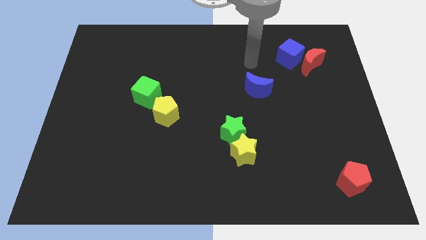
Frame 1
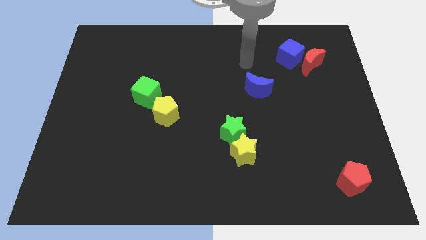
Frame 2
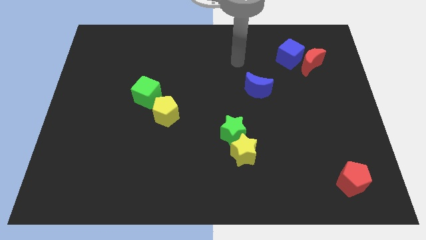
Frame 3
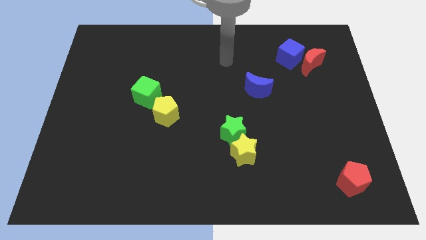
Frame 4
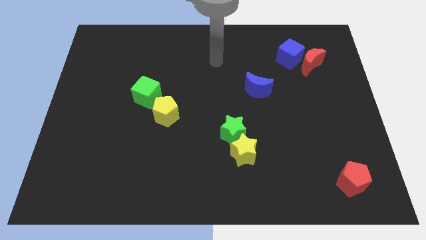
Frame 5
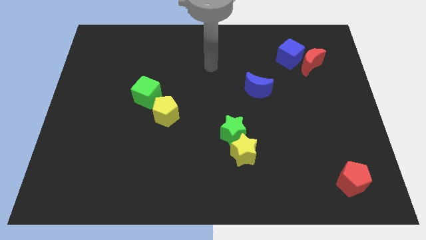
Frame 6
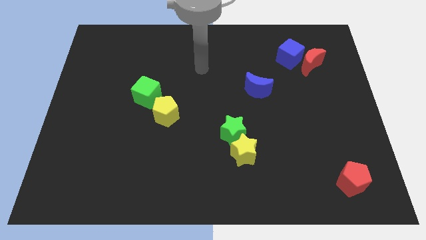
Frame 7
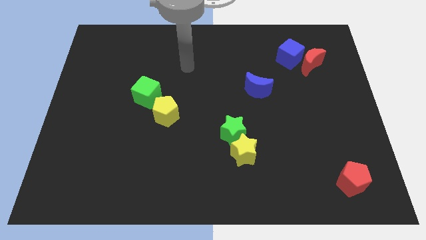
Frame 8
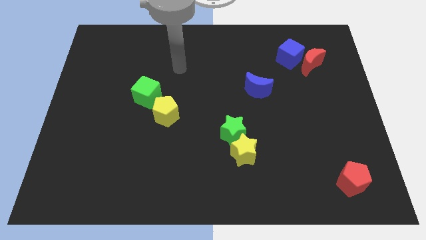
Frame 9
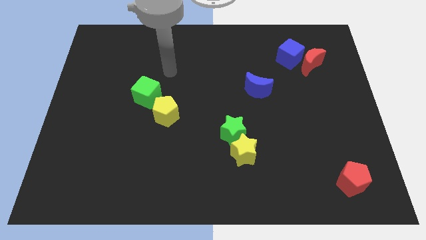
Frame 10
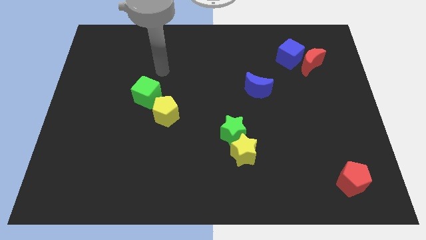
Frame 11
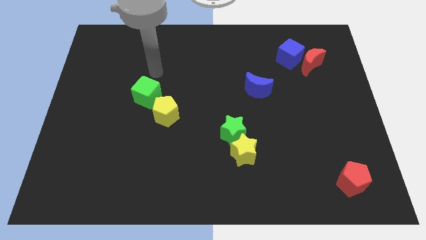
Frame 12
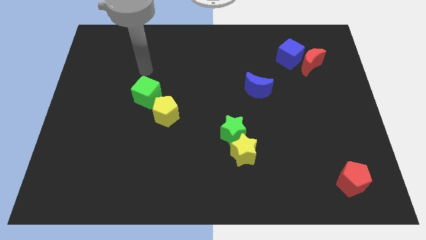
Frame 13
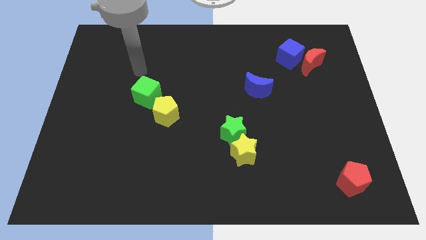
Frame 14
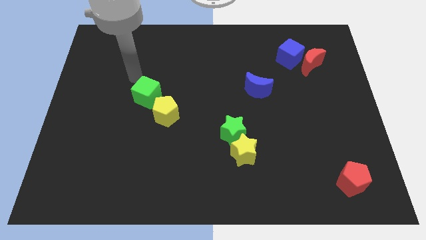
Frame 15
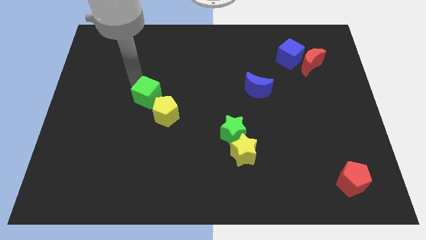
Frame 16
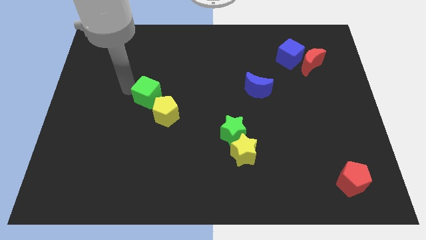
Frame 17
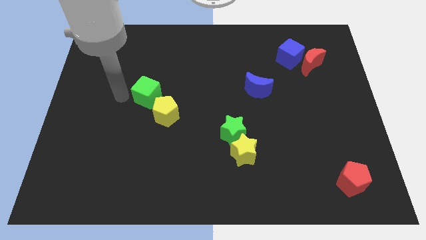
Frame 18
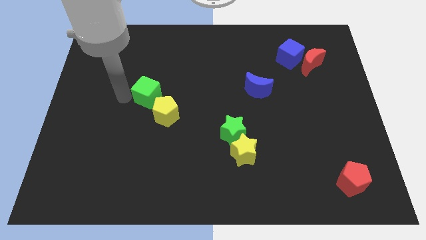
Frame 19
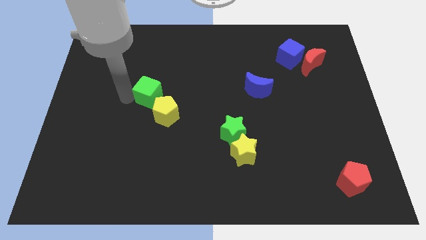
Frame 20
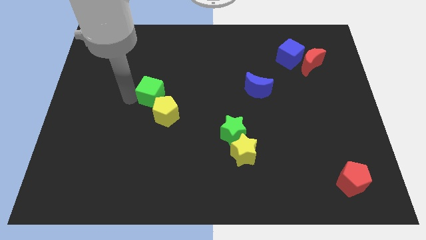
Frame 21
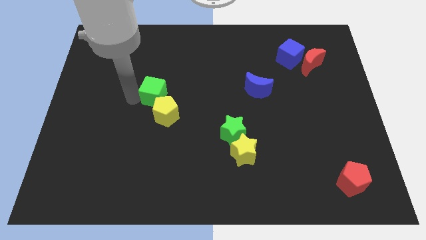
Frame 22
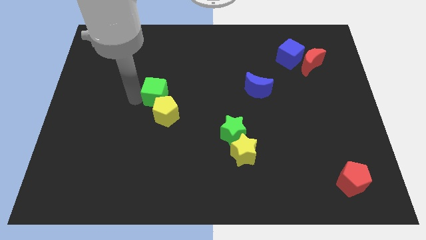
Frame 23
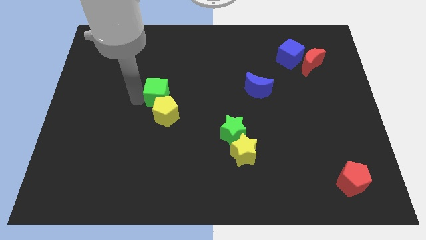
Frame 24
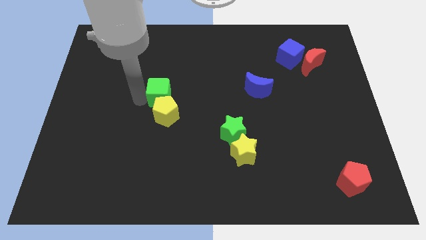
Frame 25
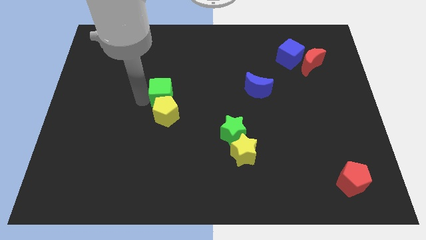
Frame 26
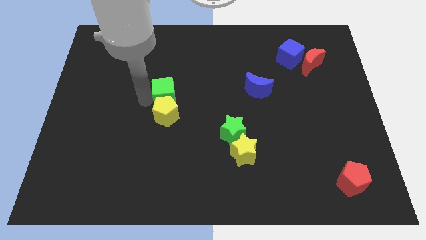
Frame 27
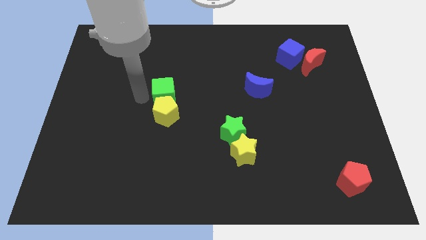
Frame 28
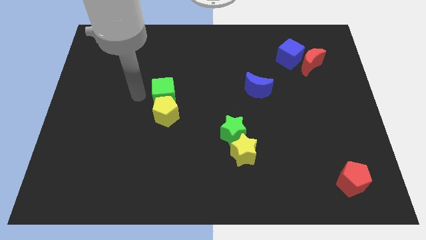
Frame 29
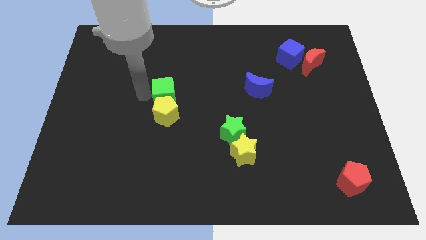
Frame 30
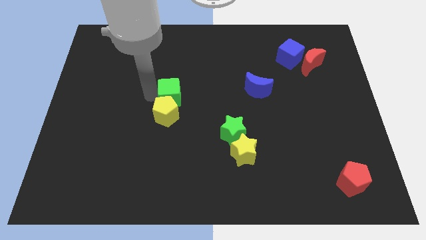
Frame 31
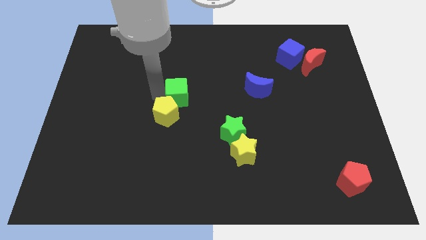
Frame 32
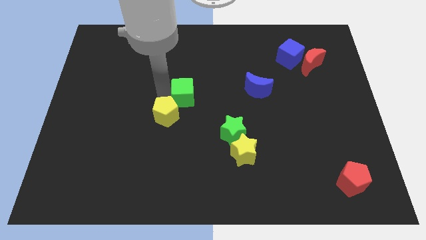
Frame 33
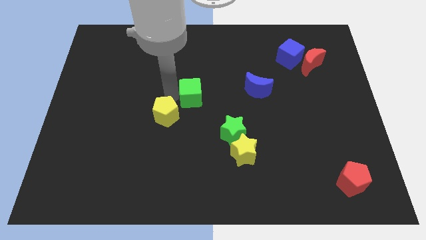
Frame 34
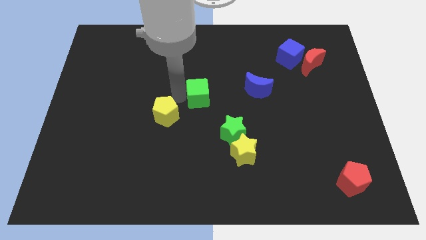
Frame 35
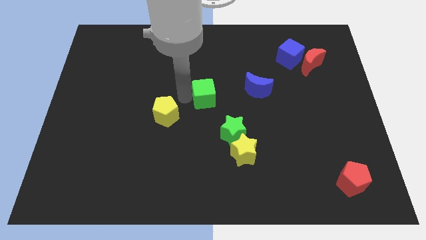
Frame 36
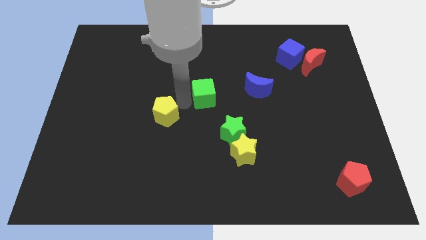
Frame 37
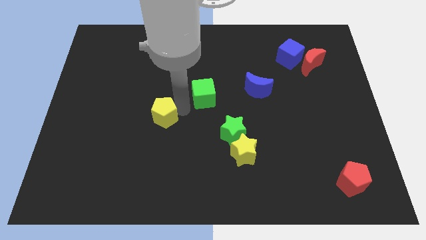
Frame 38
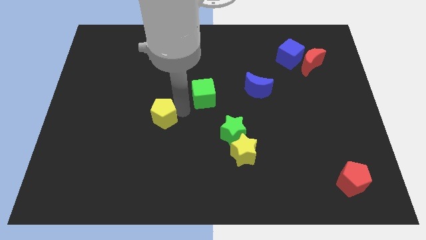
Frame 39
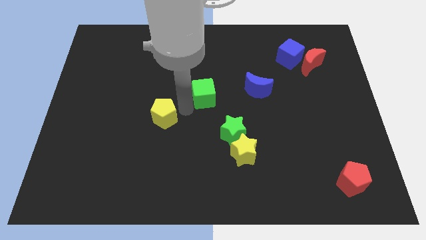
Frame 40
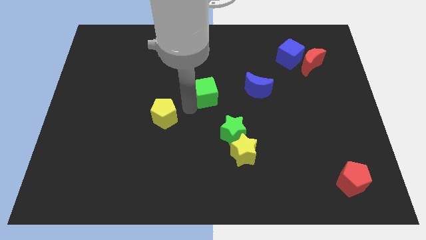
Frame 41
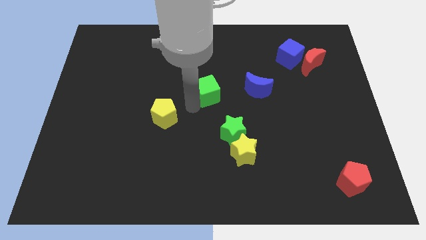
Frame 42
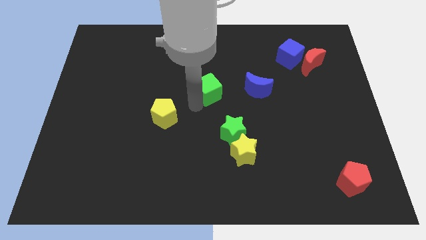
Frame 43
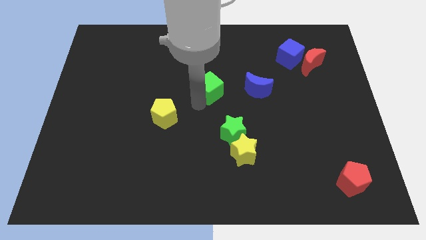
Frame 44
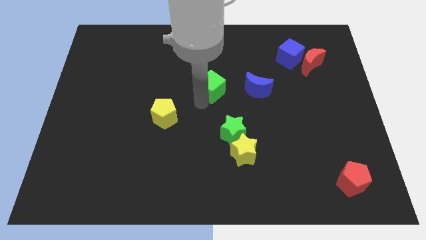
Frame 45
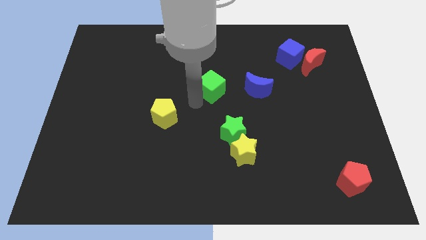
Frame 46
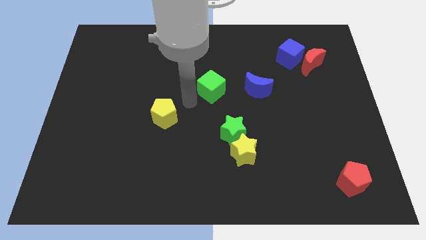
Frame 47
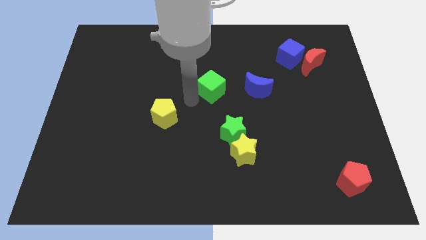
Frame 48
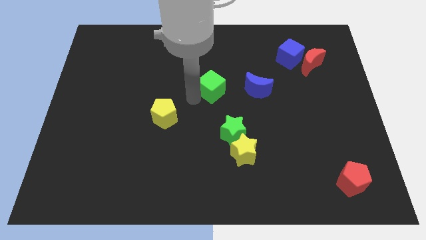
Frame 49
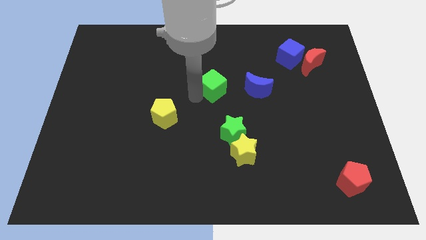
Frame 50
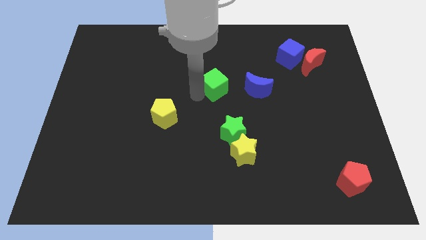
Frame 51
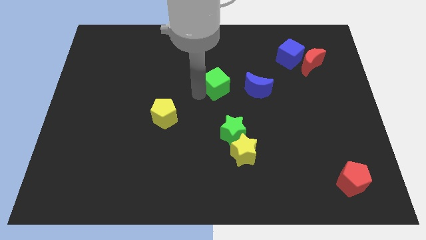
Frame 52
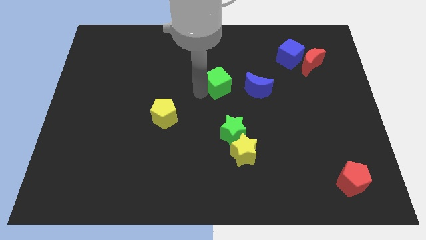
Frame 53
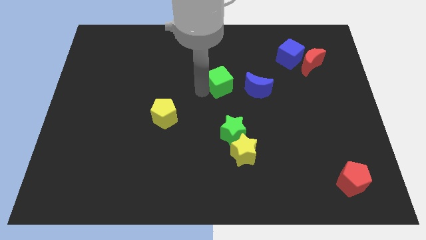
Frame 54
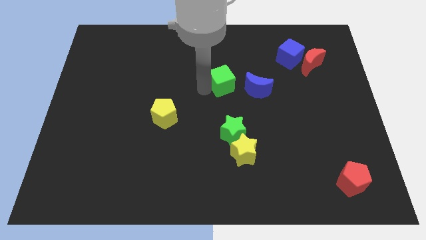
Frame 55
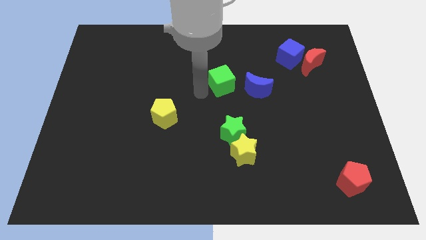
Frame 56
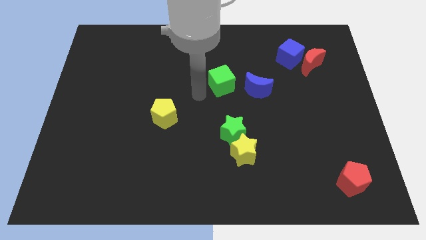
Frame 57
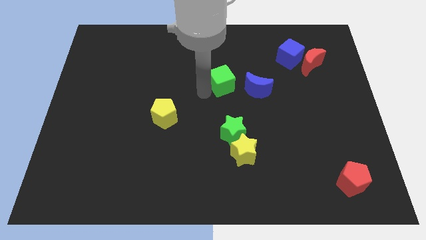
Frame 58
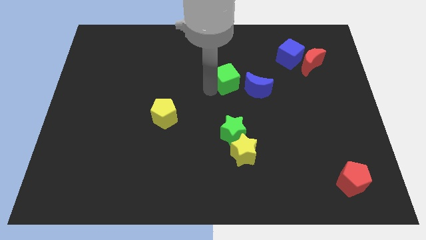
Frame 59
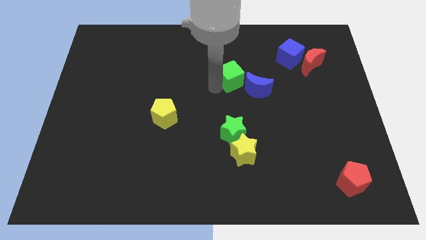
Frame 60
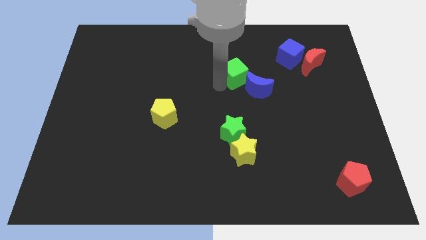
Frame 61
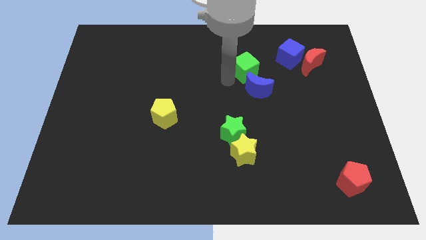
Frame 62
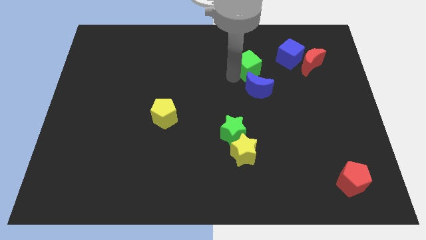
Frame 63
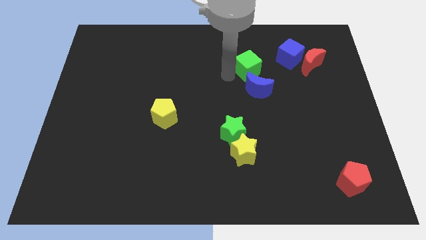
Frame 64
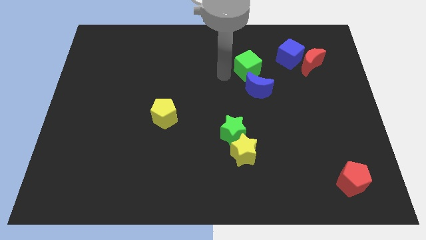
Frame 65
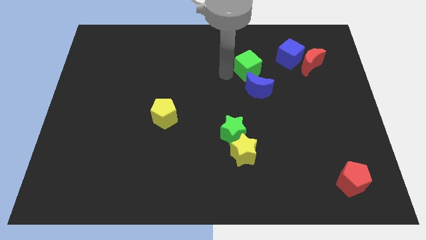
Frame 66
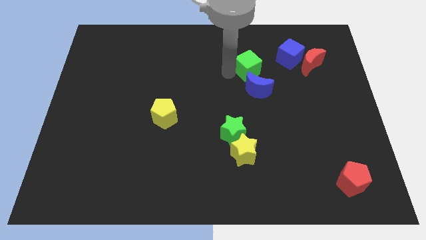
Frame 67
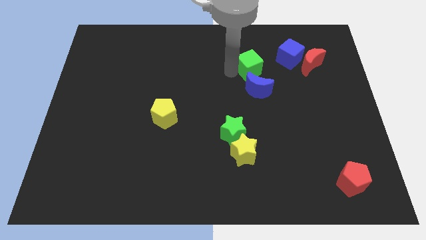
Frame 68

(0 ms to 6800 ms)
slide the green cube to the left side of the red moon
